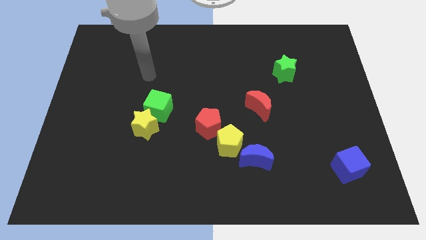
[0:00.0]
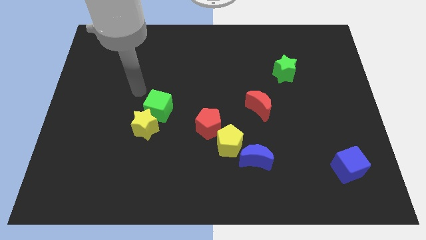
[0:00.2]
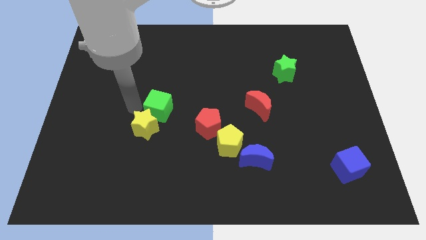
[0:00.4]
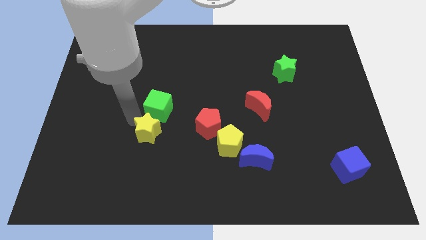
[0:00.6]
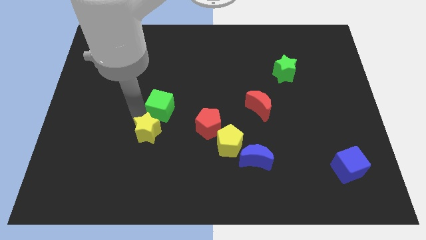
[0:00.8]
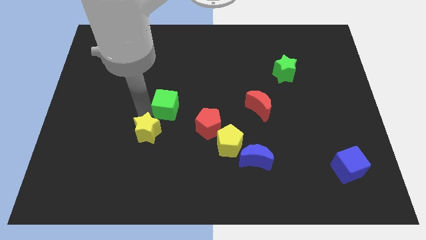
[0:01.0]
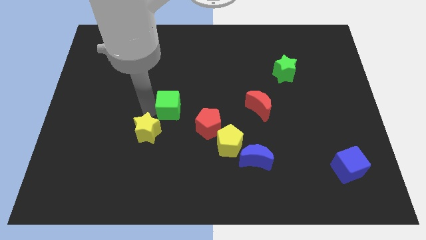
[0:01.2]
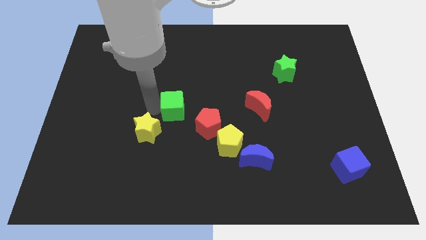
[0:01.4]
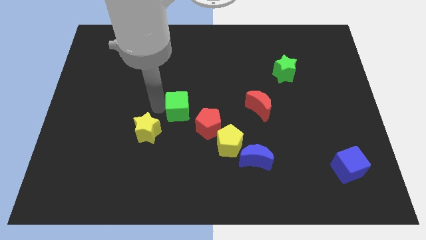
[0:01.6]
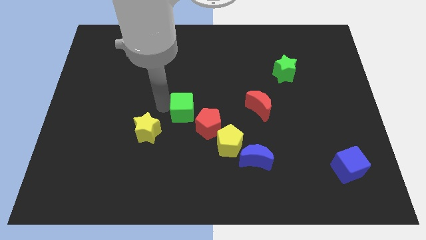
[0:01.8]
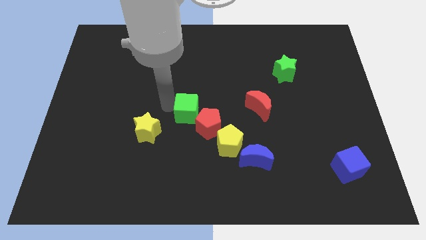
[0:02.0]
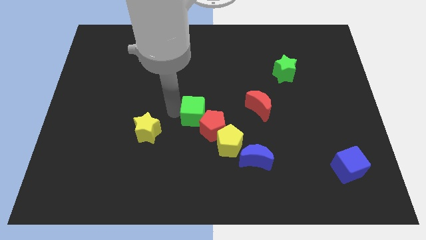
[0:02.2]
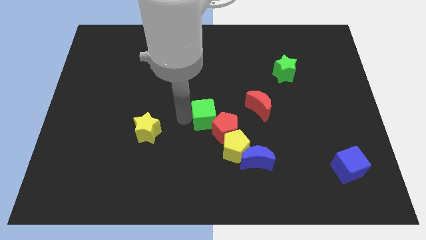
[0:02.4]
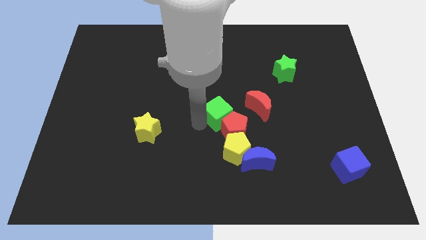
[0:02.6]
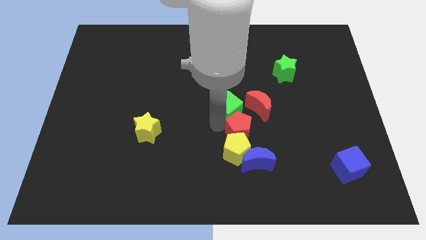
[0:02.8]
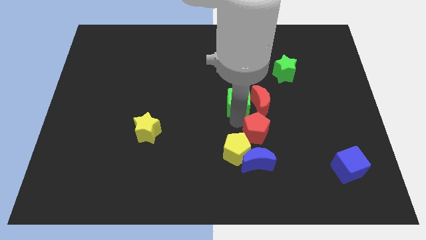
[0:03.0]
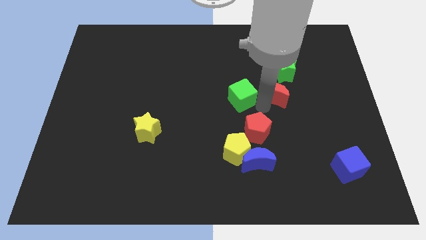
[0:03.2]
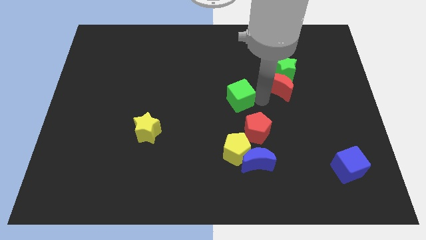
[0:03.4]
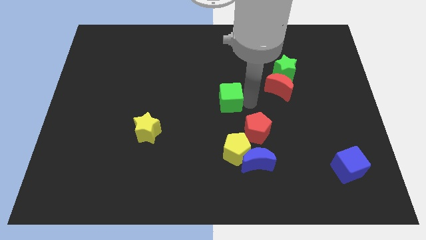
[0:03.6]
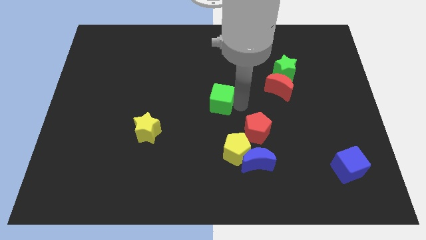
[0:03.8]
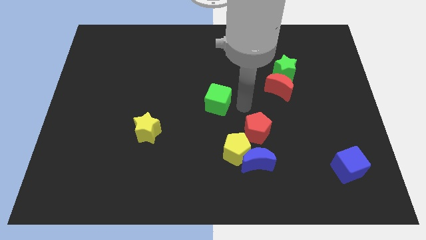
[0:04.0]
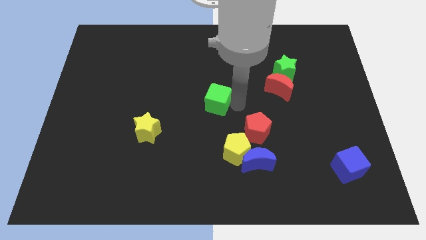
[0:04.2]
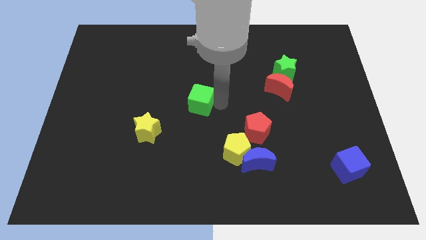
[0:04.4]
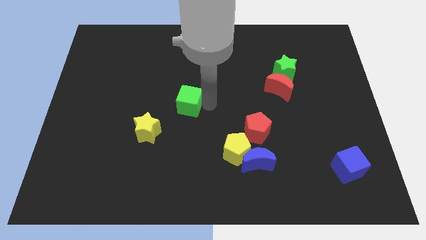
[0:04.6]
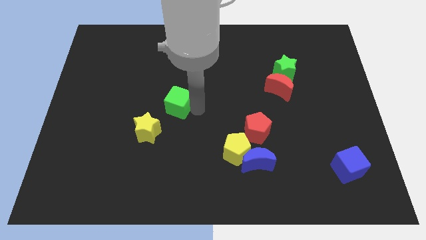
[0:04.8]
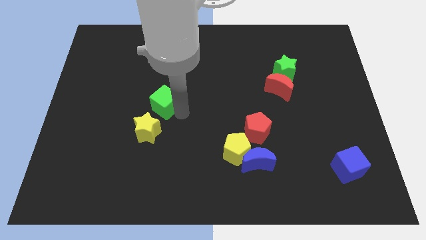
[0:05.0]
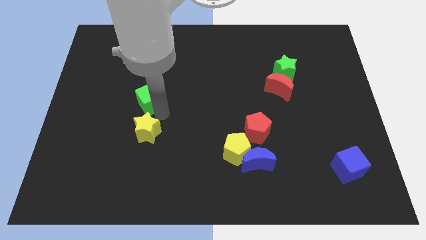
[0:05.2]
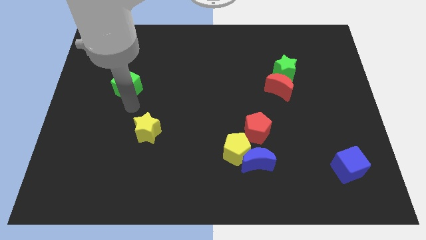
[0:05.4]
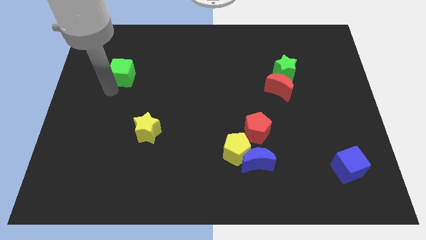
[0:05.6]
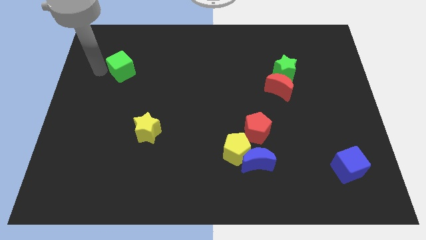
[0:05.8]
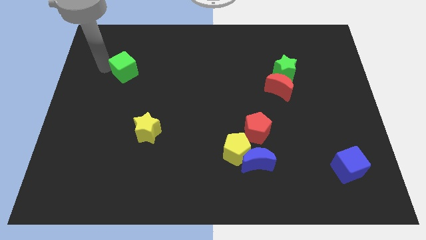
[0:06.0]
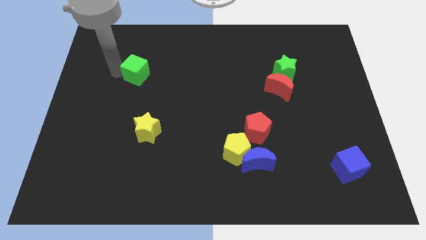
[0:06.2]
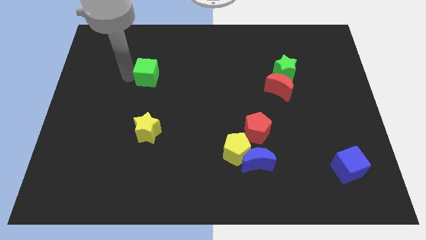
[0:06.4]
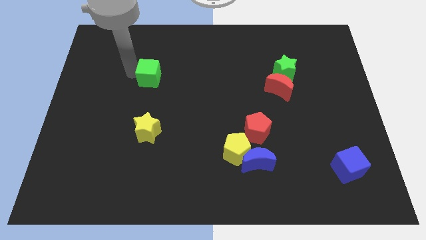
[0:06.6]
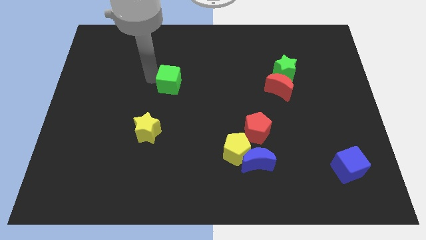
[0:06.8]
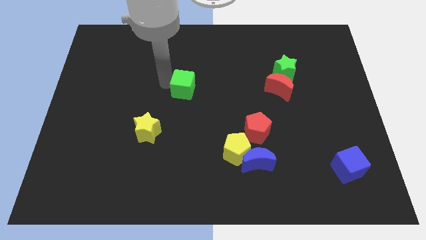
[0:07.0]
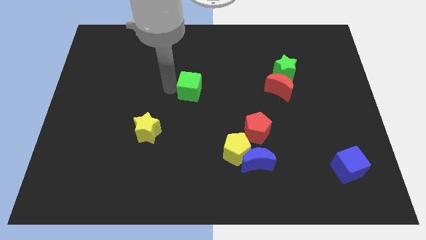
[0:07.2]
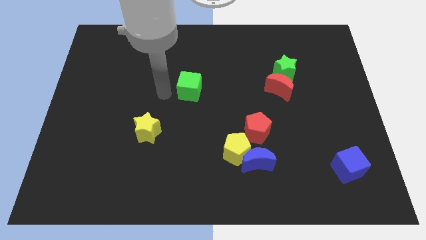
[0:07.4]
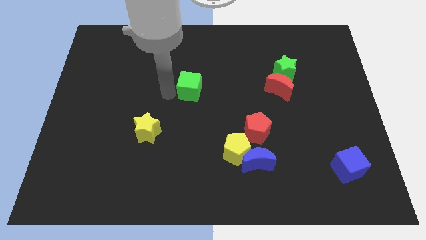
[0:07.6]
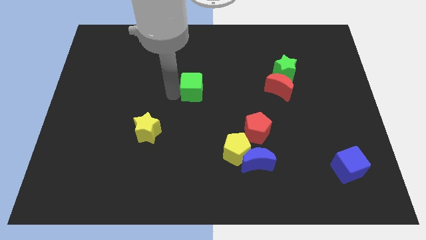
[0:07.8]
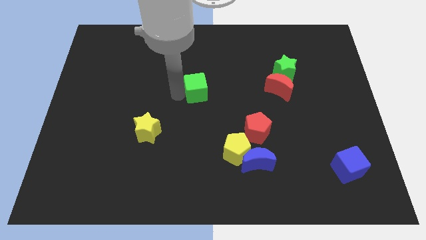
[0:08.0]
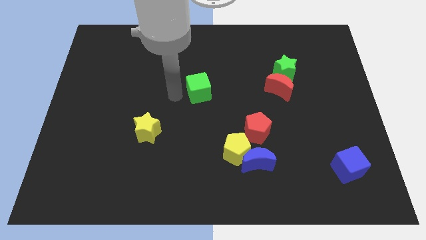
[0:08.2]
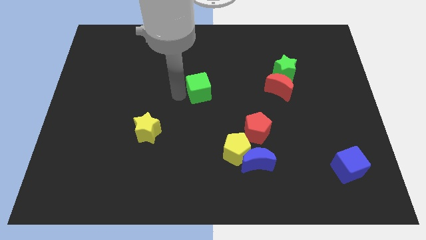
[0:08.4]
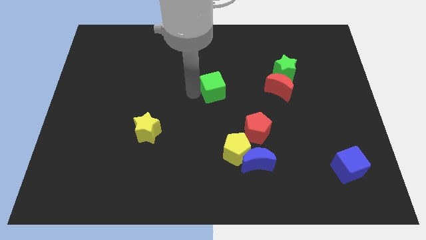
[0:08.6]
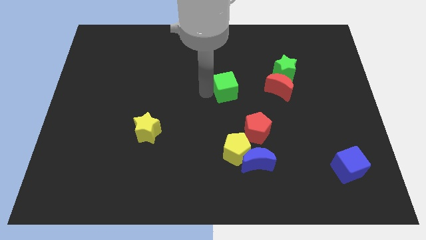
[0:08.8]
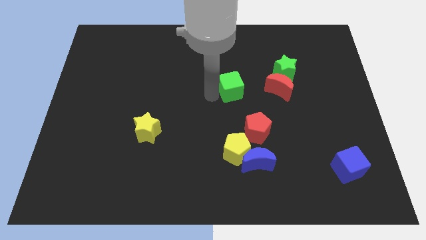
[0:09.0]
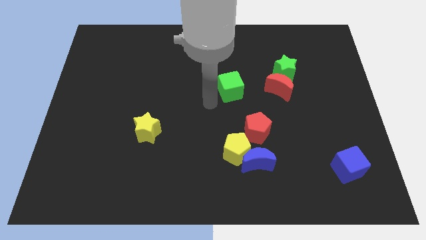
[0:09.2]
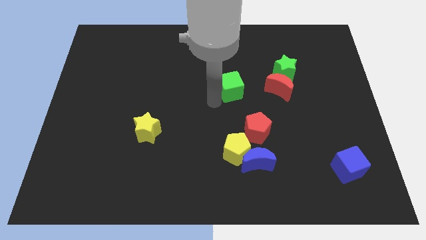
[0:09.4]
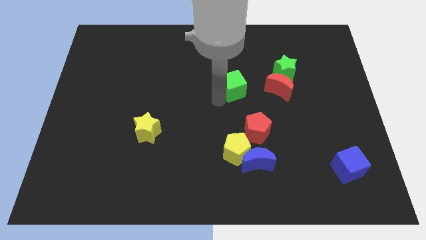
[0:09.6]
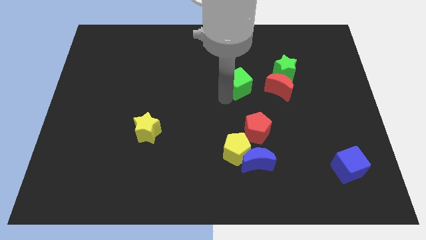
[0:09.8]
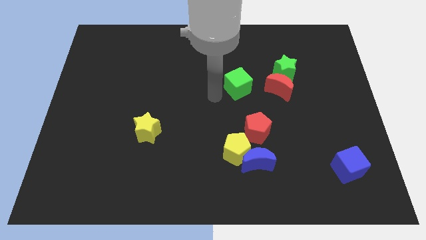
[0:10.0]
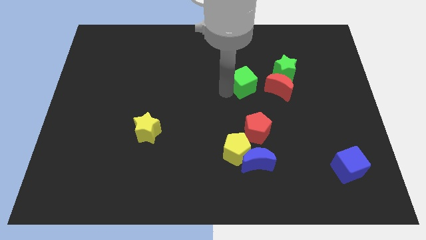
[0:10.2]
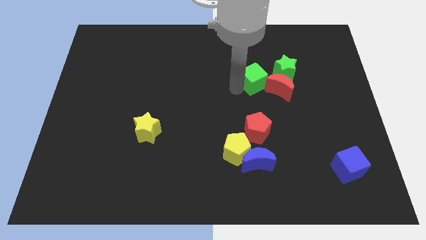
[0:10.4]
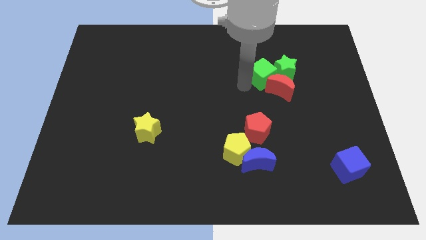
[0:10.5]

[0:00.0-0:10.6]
put the green cube towards the green star

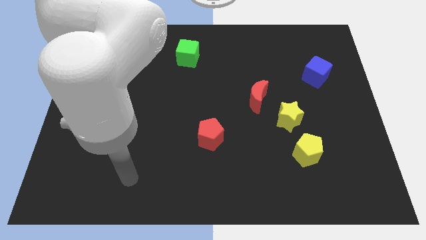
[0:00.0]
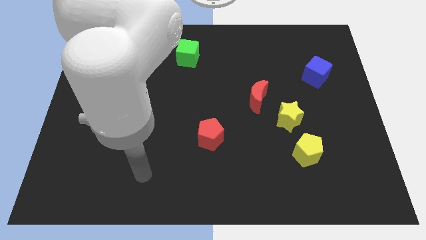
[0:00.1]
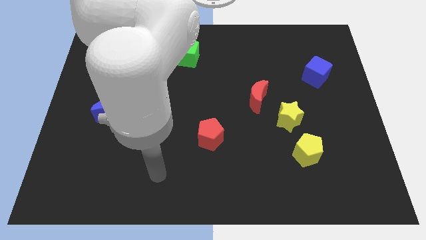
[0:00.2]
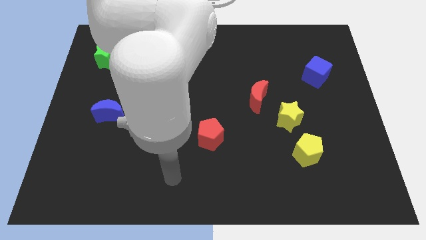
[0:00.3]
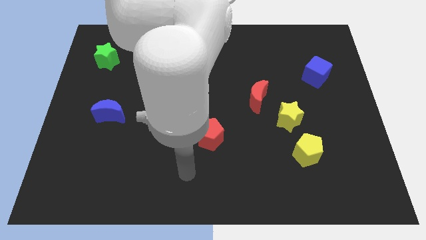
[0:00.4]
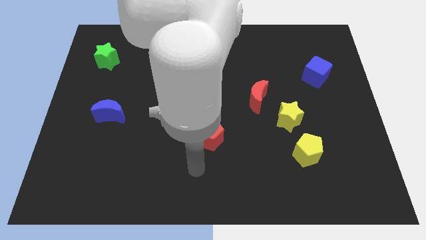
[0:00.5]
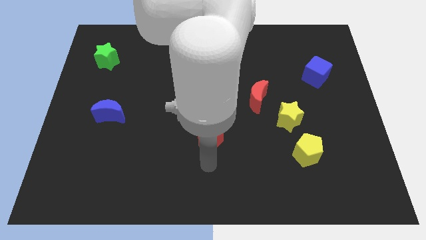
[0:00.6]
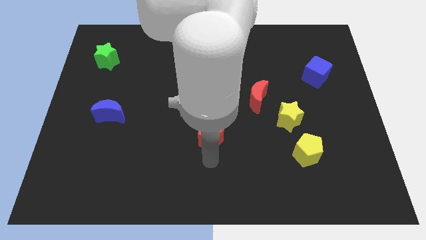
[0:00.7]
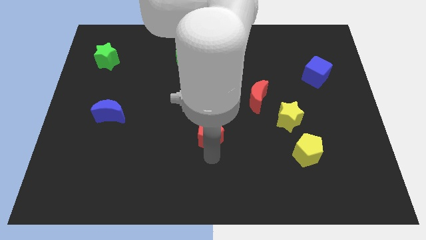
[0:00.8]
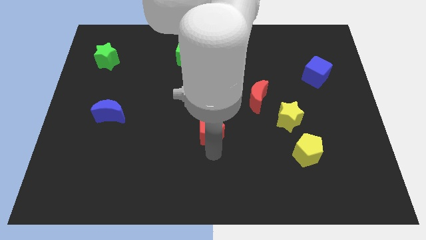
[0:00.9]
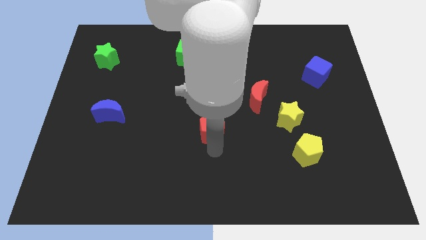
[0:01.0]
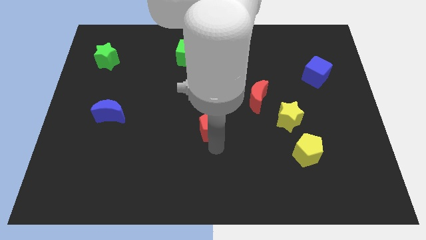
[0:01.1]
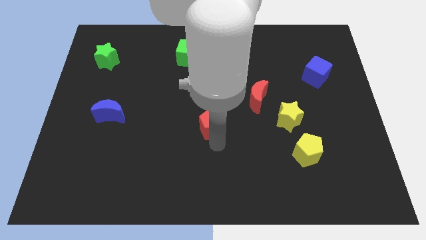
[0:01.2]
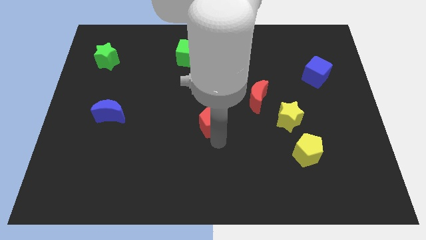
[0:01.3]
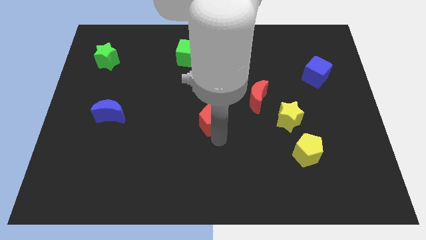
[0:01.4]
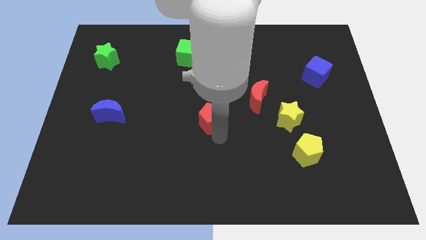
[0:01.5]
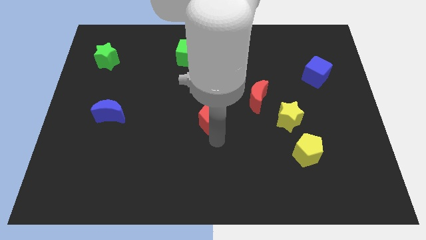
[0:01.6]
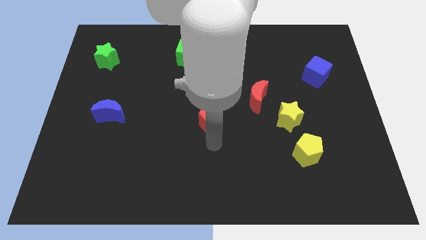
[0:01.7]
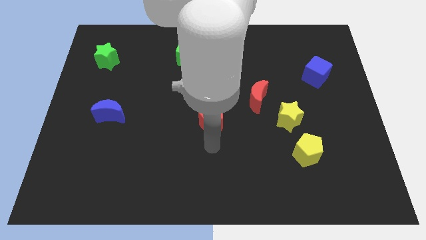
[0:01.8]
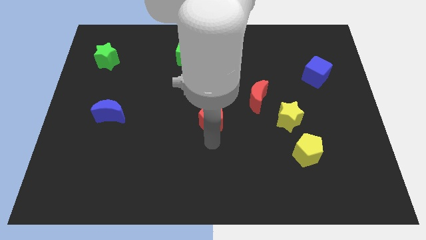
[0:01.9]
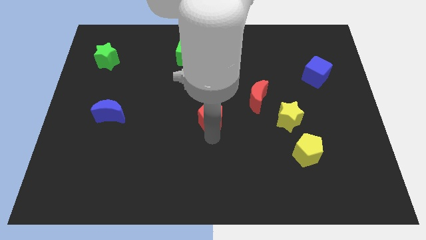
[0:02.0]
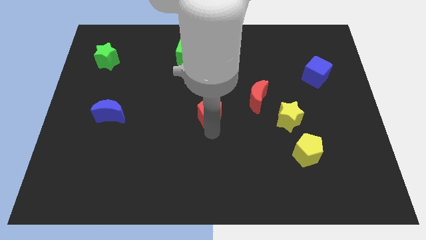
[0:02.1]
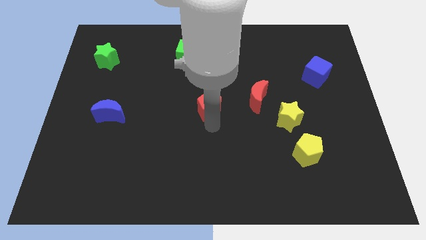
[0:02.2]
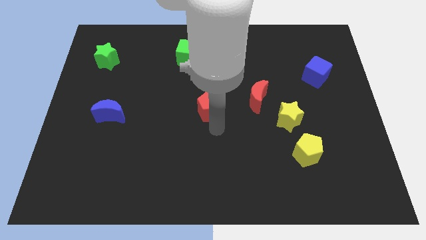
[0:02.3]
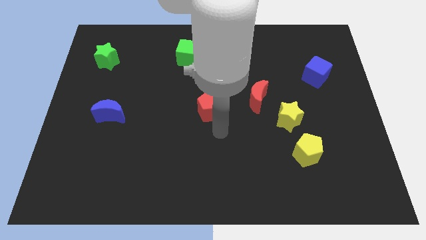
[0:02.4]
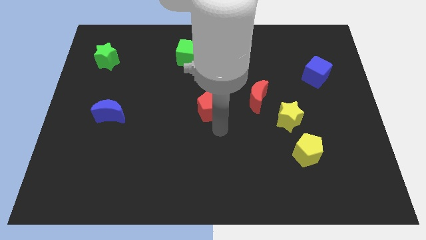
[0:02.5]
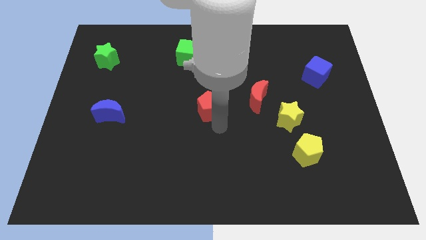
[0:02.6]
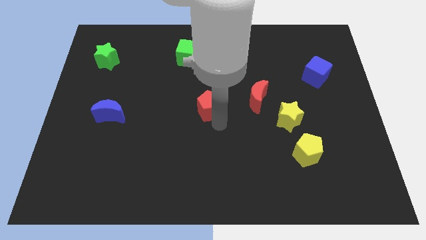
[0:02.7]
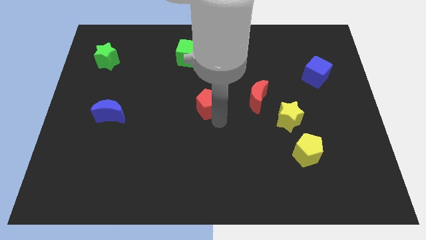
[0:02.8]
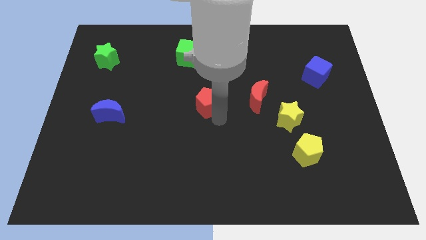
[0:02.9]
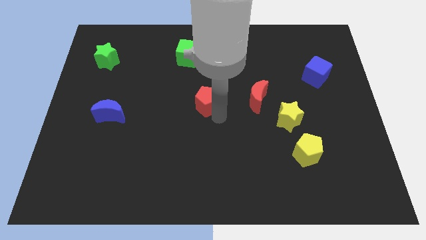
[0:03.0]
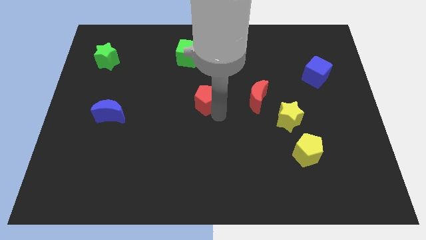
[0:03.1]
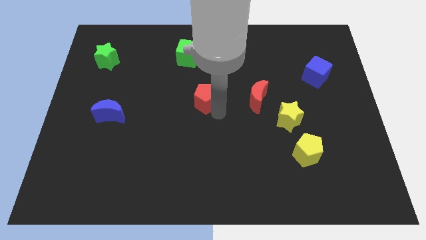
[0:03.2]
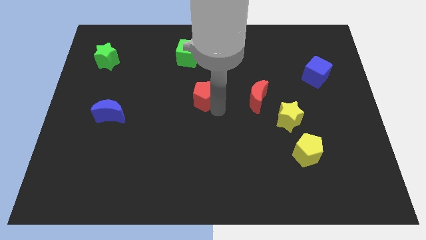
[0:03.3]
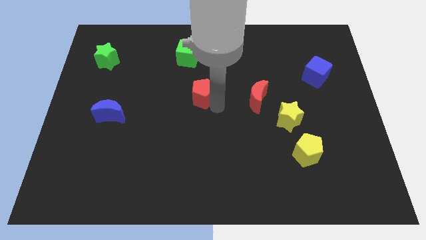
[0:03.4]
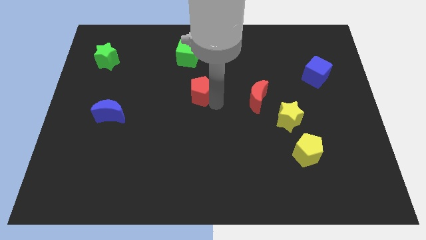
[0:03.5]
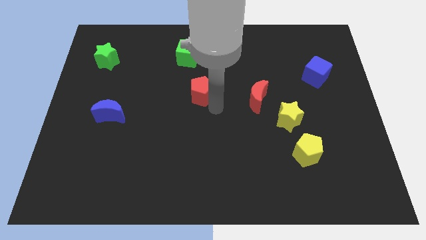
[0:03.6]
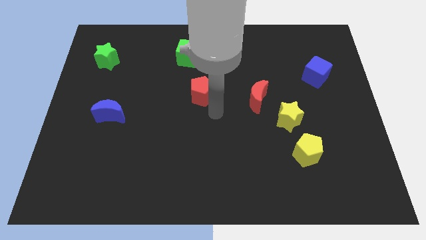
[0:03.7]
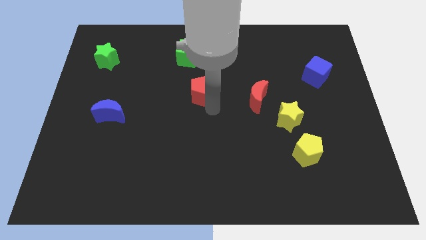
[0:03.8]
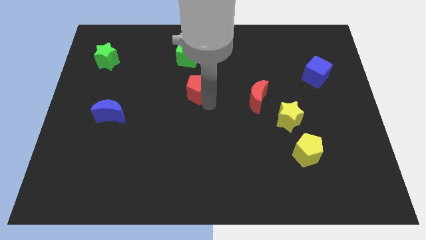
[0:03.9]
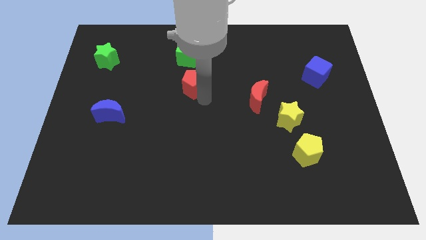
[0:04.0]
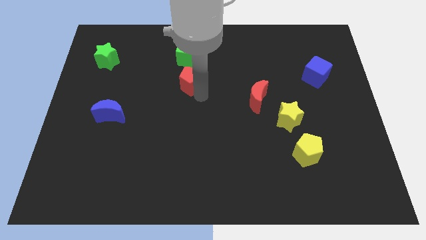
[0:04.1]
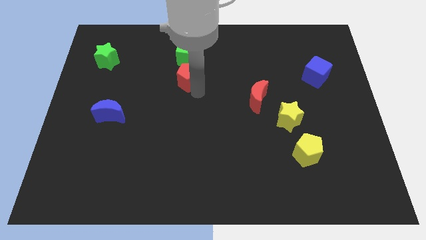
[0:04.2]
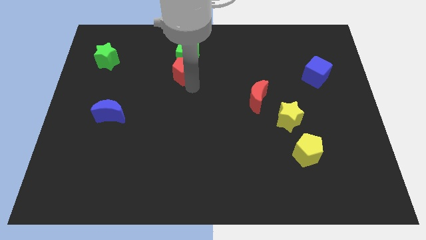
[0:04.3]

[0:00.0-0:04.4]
put the red pentagon to the green cube
